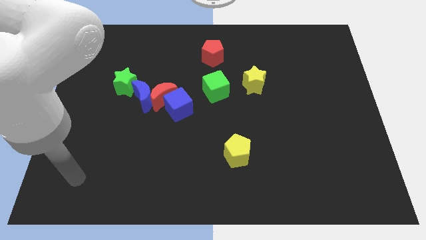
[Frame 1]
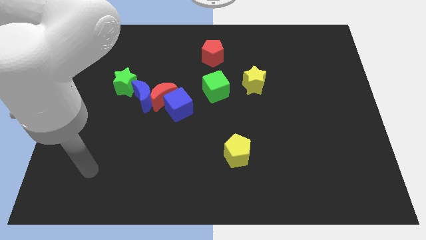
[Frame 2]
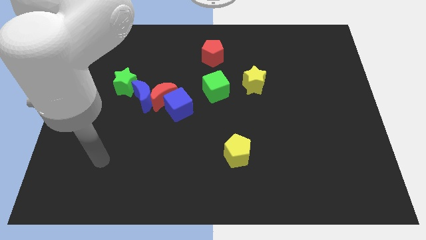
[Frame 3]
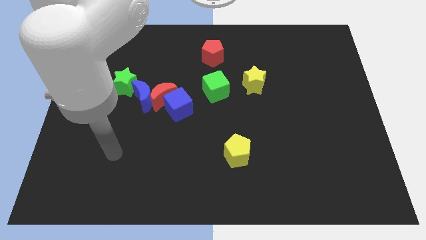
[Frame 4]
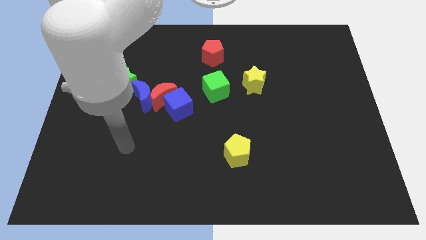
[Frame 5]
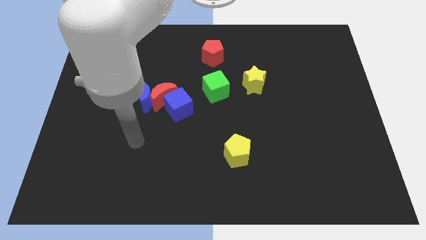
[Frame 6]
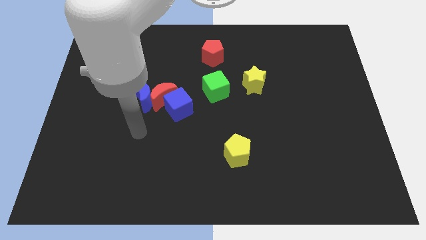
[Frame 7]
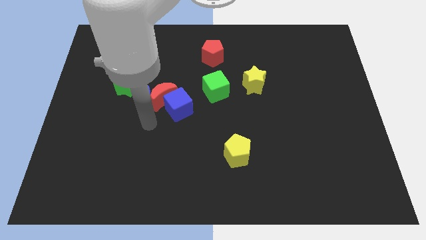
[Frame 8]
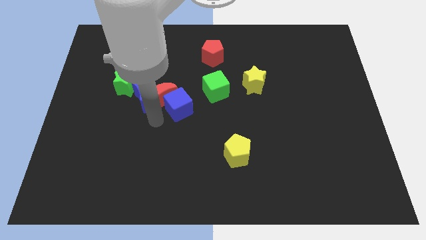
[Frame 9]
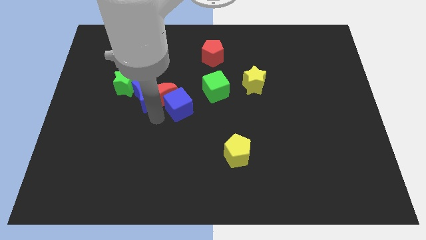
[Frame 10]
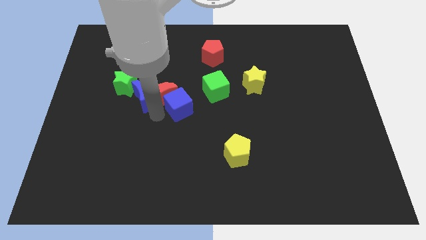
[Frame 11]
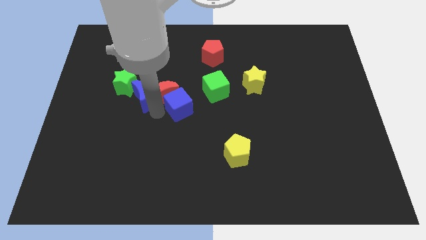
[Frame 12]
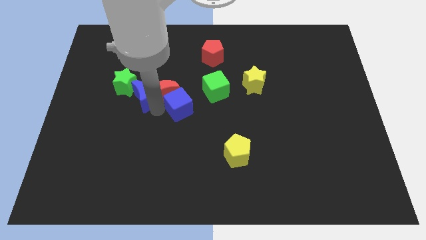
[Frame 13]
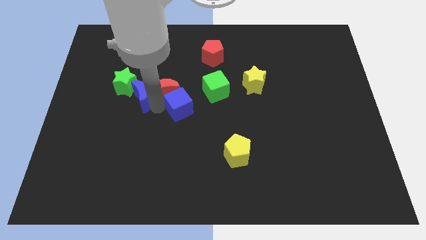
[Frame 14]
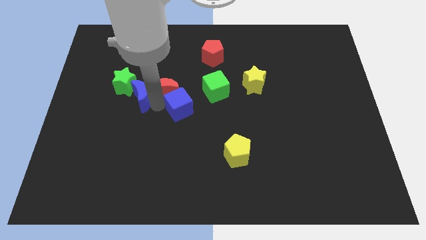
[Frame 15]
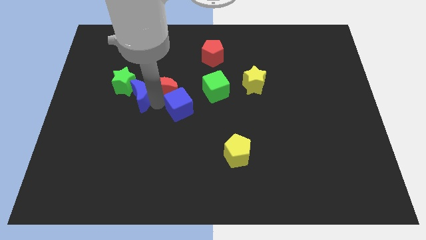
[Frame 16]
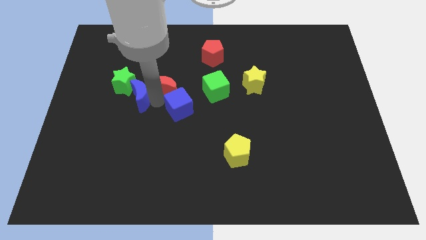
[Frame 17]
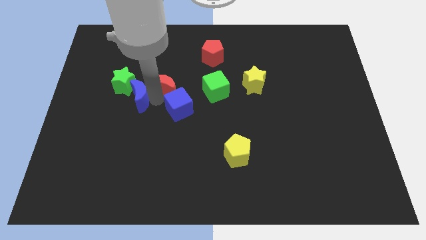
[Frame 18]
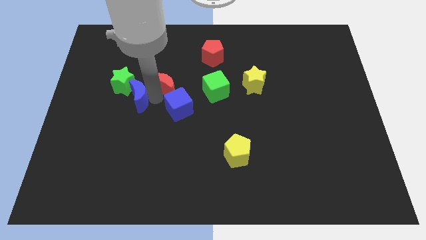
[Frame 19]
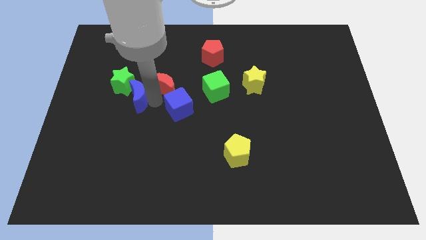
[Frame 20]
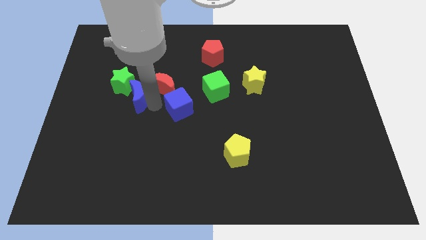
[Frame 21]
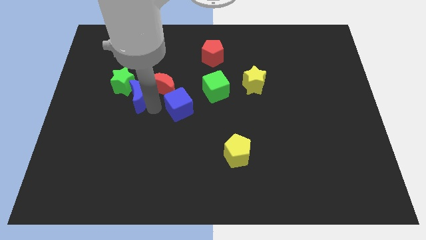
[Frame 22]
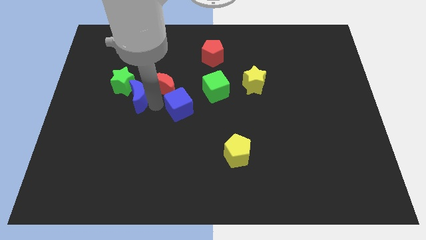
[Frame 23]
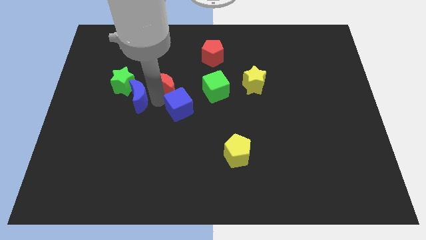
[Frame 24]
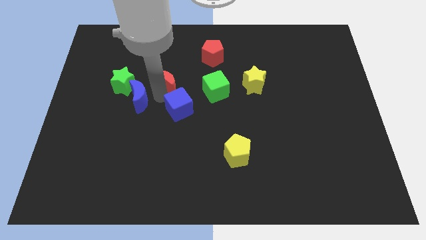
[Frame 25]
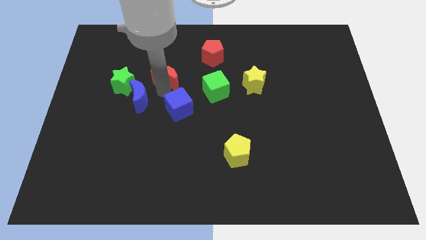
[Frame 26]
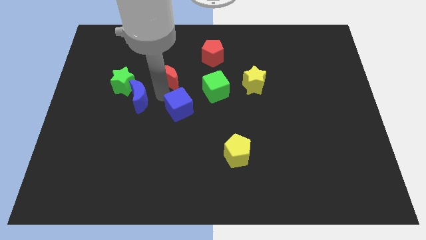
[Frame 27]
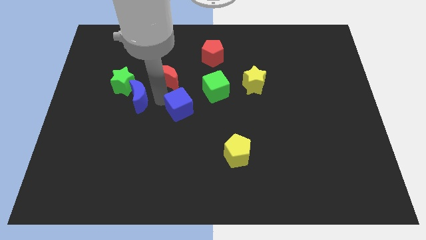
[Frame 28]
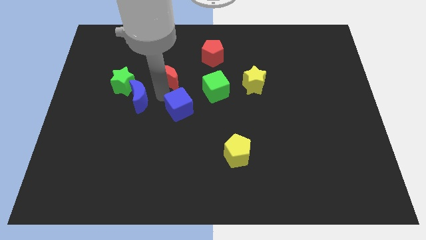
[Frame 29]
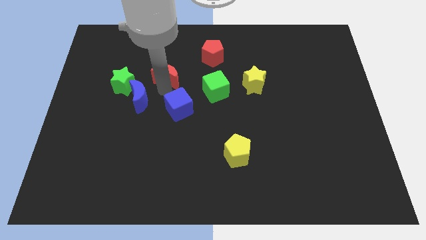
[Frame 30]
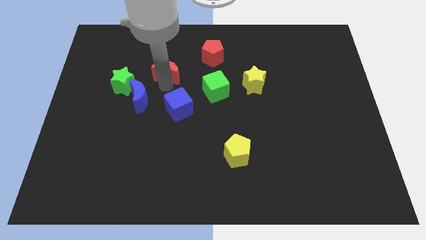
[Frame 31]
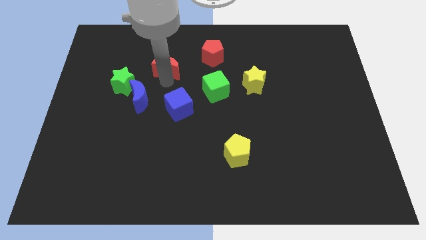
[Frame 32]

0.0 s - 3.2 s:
separate the red moon from the blue moon and blue cube

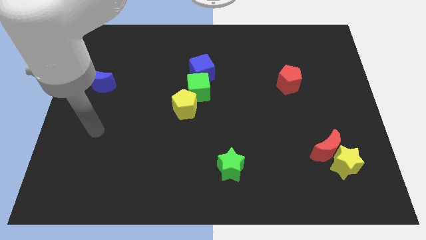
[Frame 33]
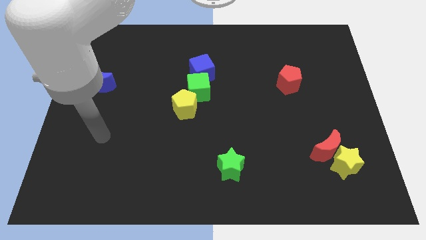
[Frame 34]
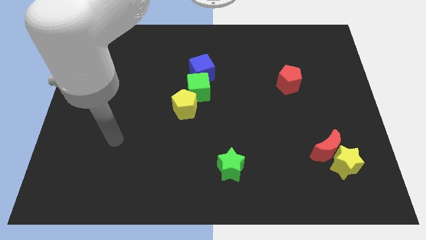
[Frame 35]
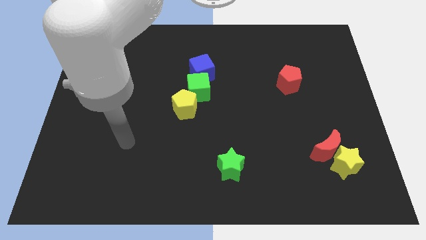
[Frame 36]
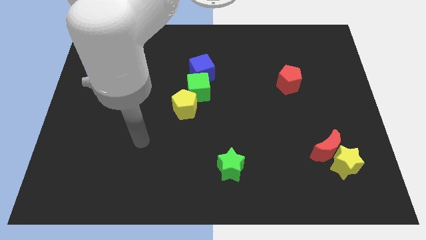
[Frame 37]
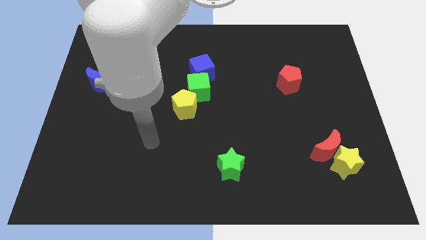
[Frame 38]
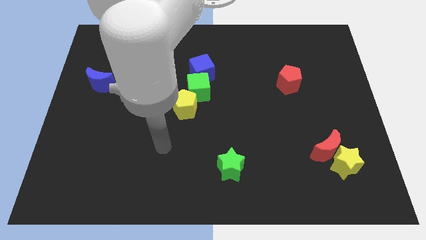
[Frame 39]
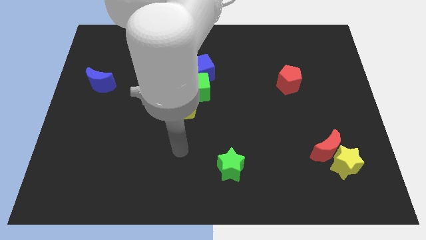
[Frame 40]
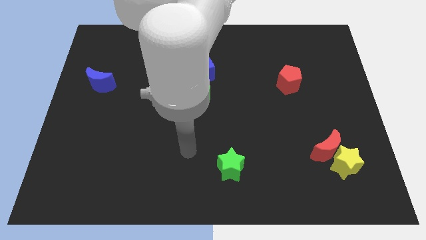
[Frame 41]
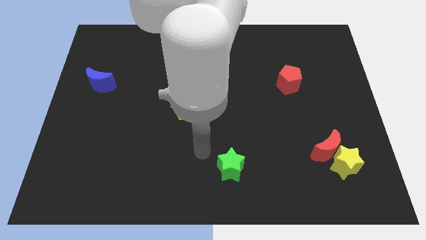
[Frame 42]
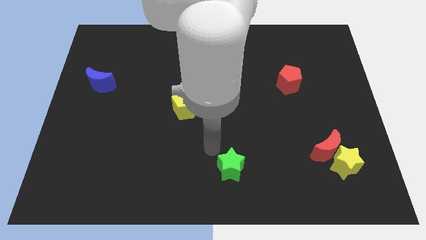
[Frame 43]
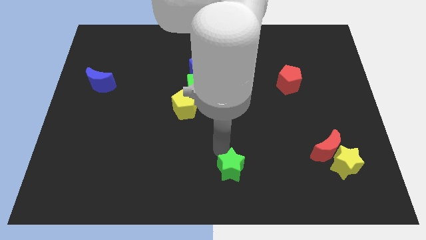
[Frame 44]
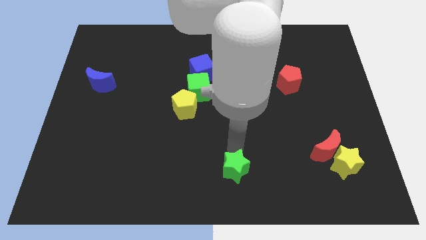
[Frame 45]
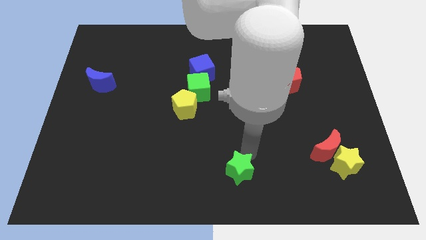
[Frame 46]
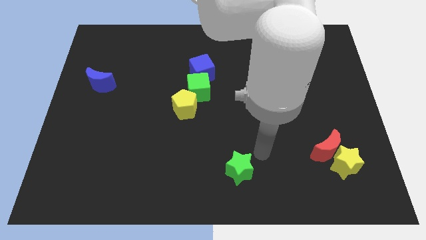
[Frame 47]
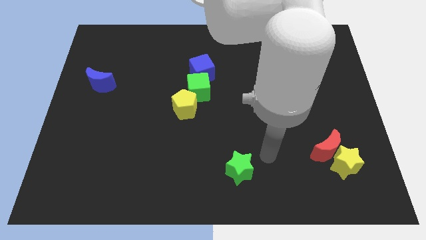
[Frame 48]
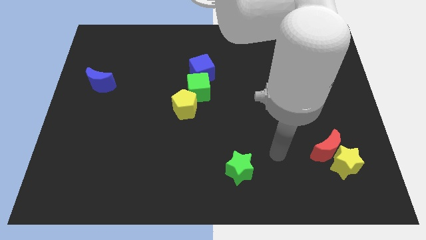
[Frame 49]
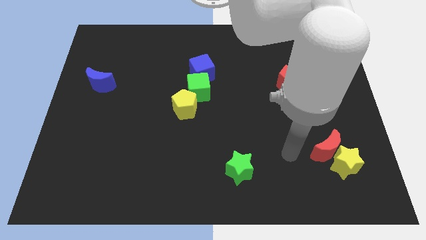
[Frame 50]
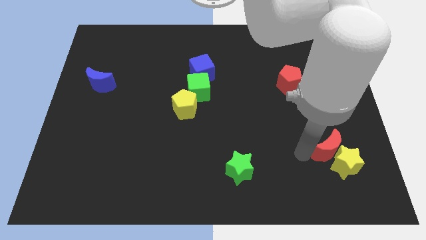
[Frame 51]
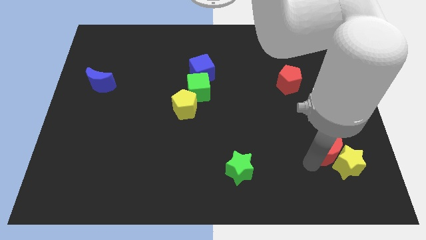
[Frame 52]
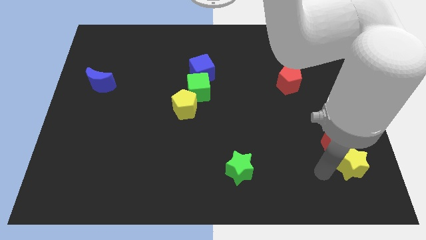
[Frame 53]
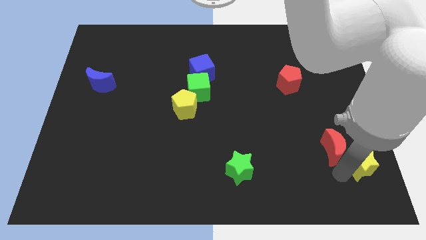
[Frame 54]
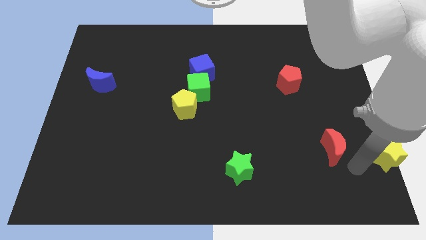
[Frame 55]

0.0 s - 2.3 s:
separate the red moon from the yellow star

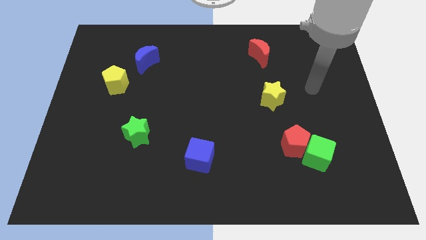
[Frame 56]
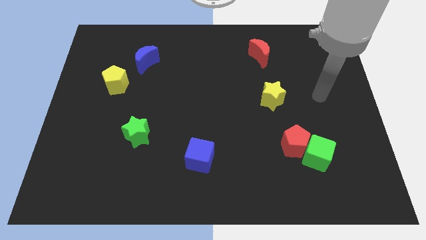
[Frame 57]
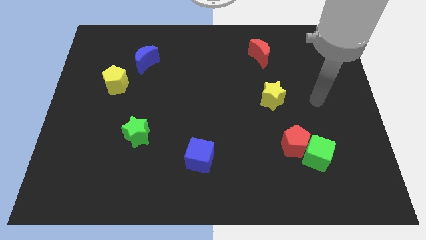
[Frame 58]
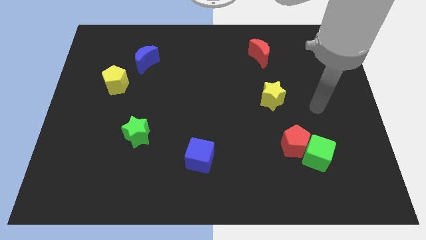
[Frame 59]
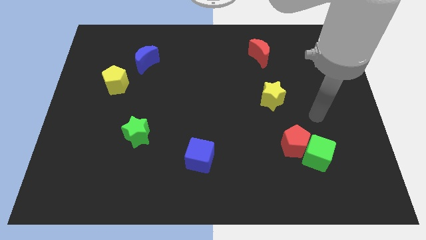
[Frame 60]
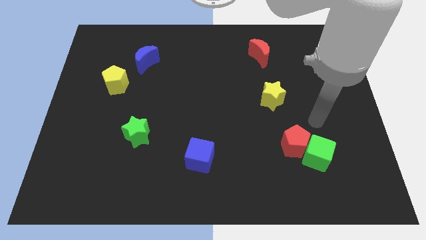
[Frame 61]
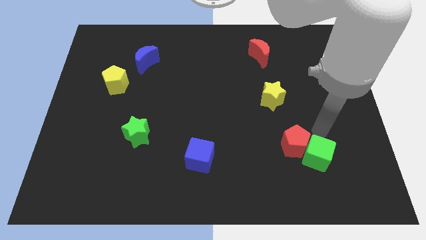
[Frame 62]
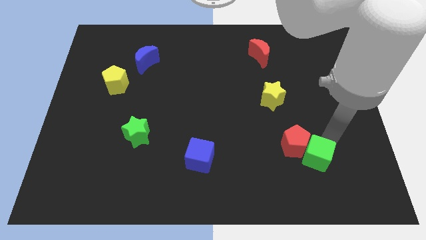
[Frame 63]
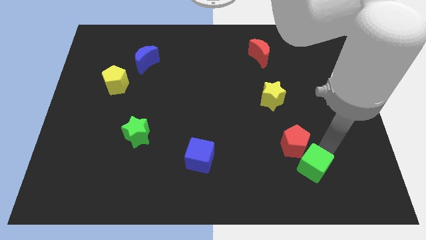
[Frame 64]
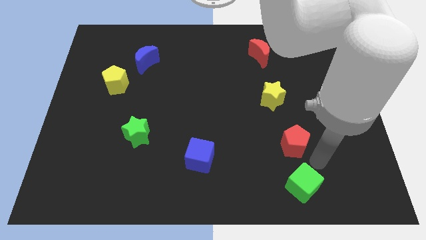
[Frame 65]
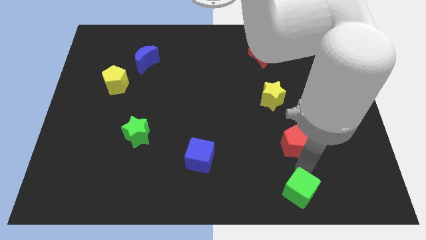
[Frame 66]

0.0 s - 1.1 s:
separate the red pentagon from the green cube

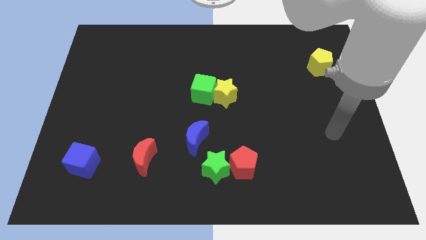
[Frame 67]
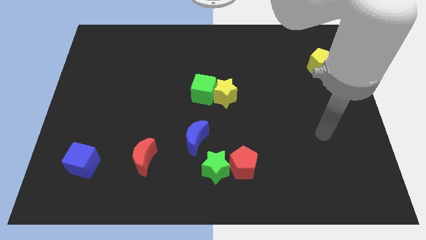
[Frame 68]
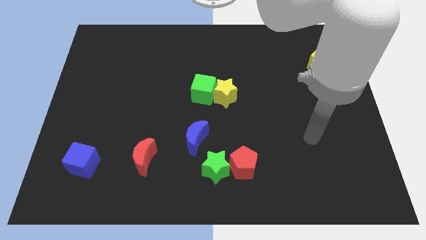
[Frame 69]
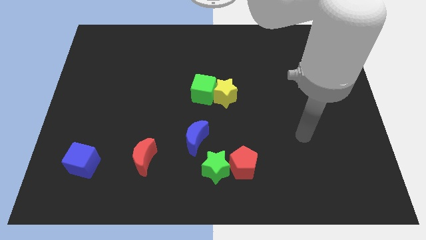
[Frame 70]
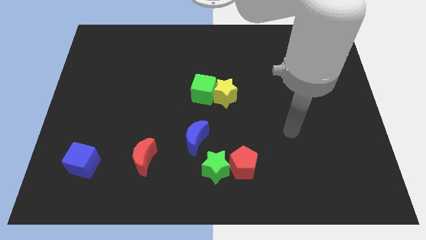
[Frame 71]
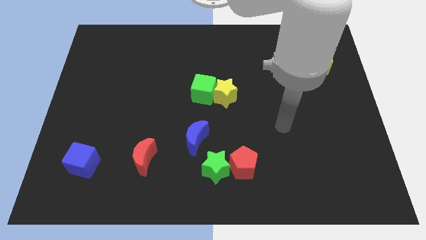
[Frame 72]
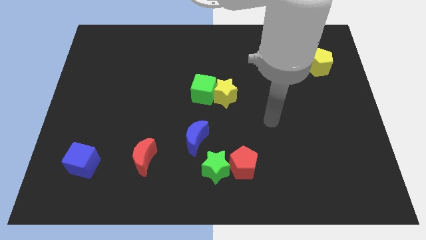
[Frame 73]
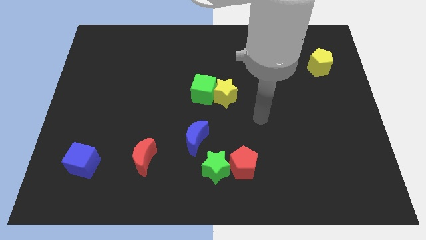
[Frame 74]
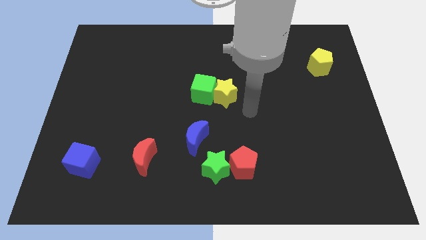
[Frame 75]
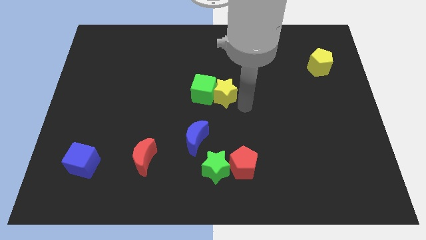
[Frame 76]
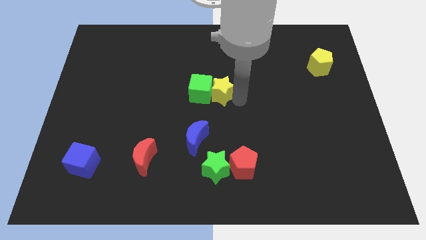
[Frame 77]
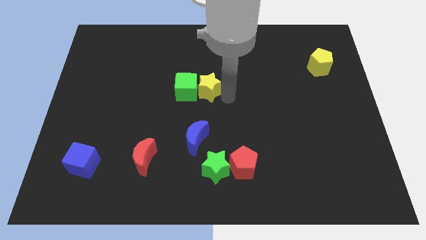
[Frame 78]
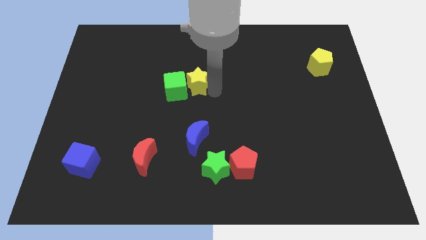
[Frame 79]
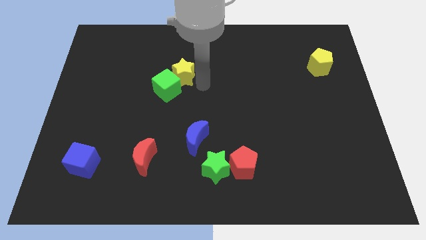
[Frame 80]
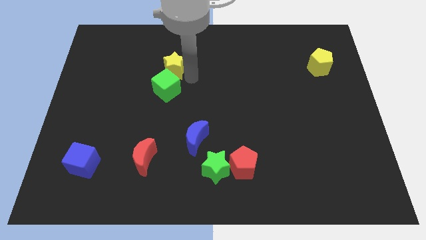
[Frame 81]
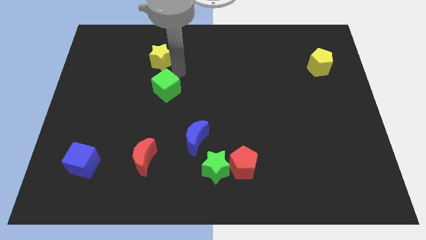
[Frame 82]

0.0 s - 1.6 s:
pull the green cube apart from the yellow star

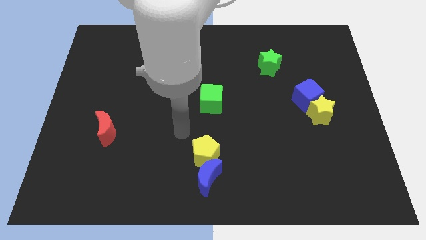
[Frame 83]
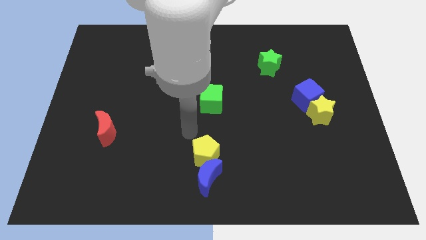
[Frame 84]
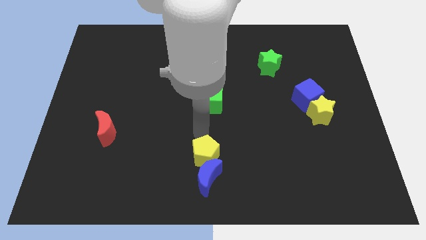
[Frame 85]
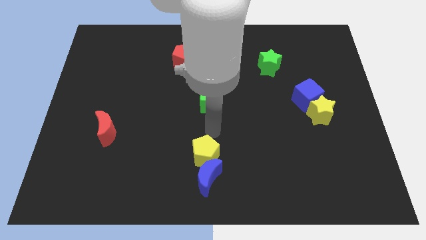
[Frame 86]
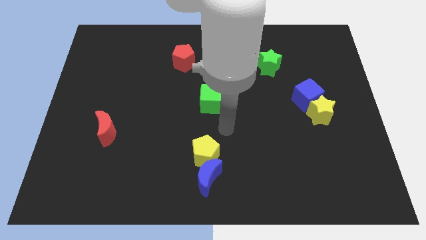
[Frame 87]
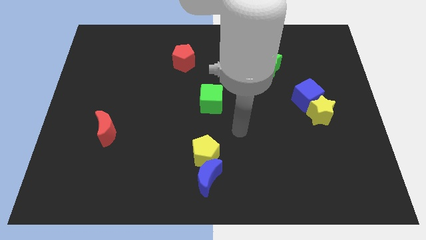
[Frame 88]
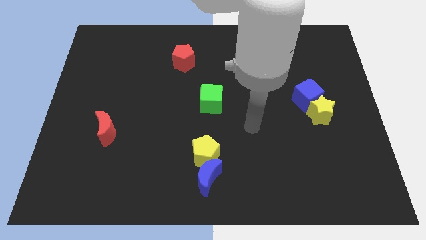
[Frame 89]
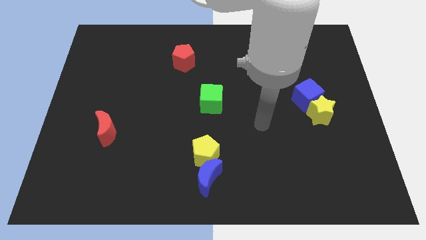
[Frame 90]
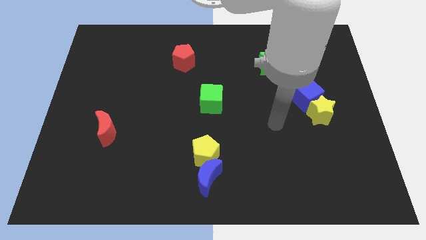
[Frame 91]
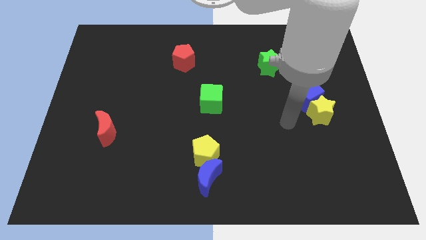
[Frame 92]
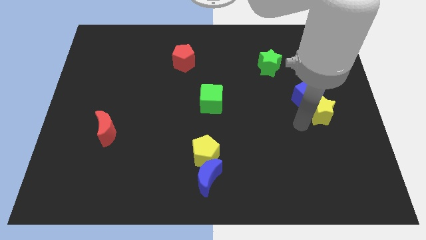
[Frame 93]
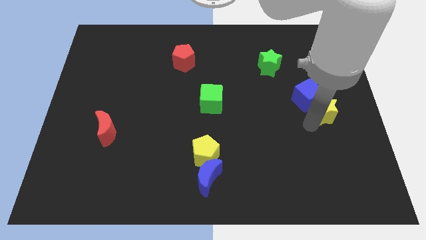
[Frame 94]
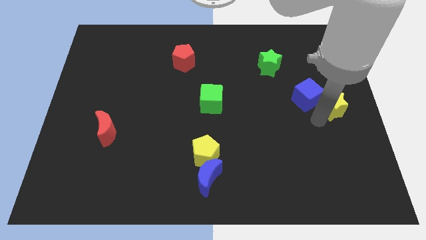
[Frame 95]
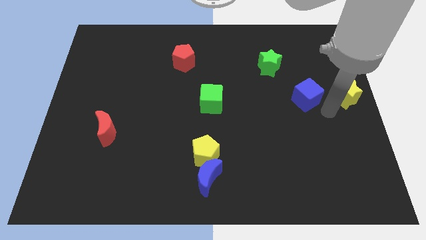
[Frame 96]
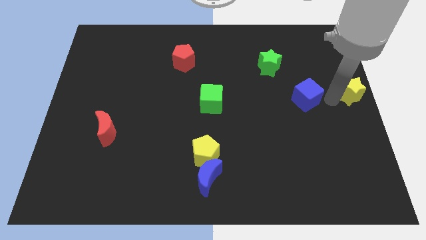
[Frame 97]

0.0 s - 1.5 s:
move the blue cube away from the yellow star
